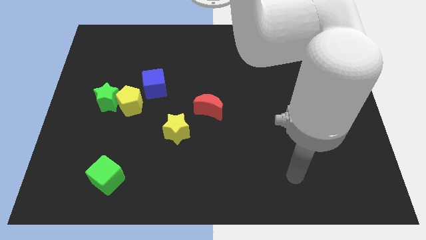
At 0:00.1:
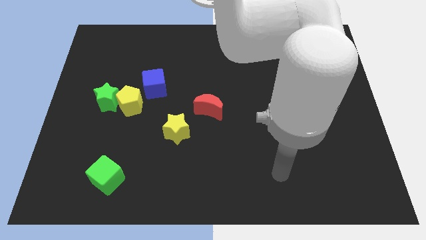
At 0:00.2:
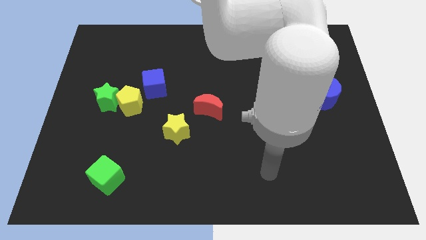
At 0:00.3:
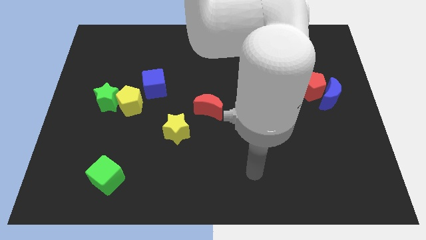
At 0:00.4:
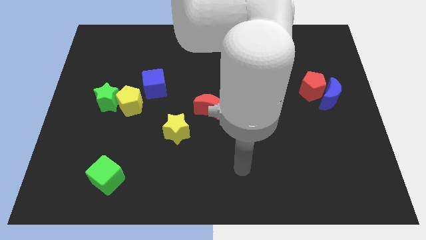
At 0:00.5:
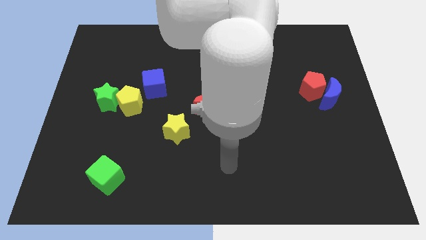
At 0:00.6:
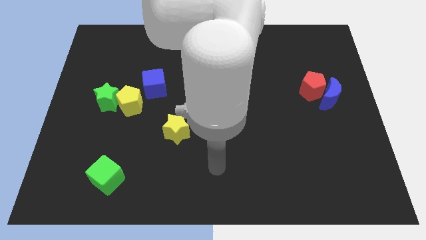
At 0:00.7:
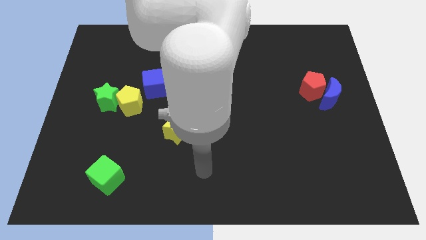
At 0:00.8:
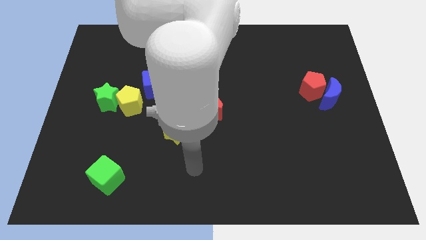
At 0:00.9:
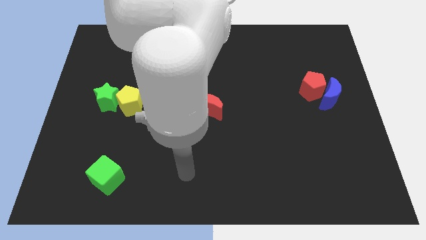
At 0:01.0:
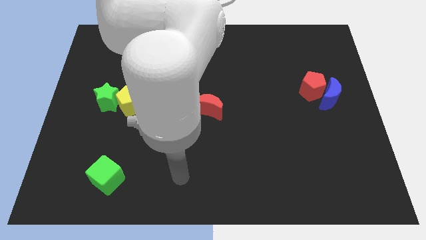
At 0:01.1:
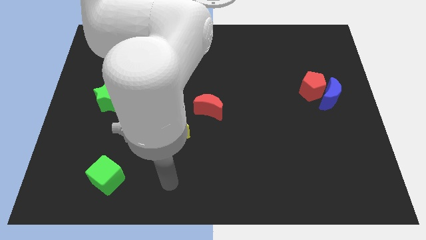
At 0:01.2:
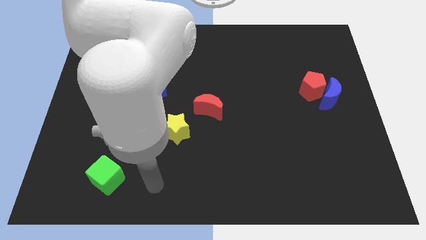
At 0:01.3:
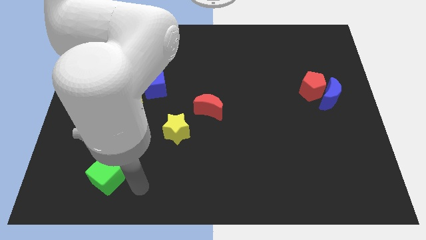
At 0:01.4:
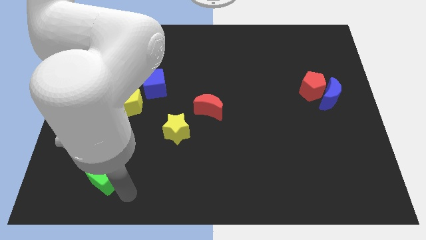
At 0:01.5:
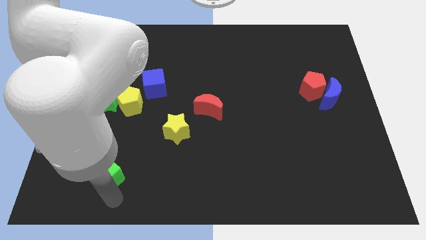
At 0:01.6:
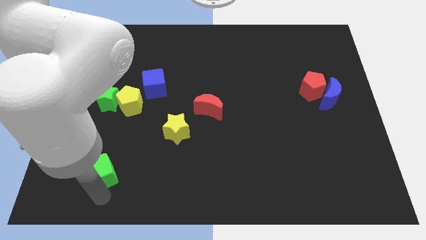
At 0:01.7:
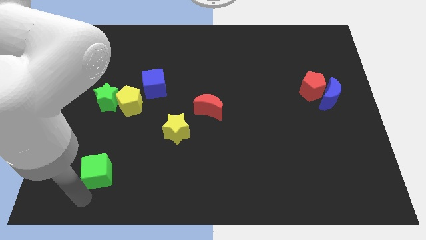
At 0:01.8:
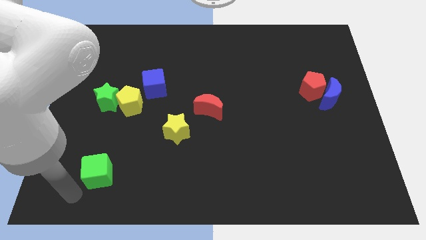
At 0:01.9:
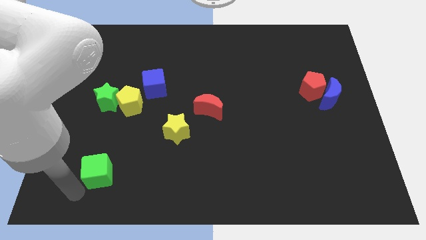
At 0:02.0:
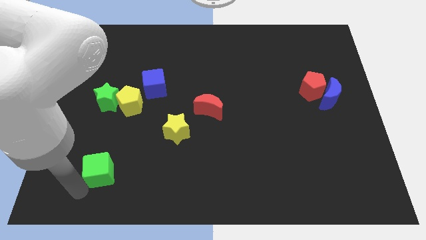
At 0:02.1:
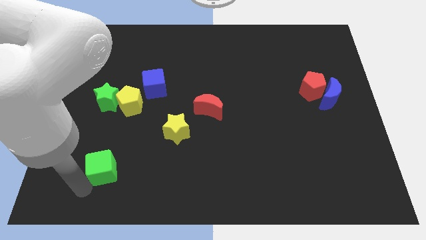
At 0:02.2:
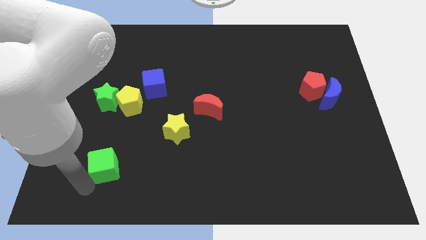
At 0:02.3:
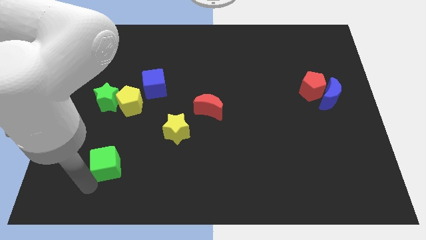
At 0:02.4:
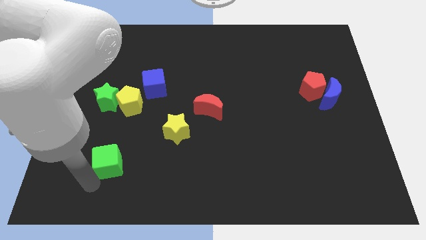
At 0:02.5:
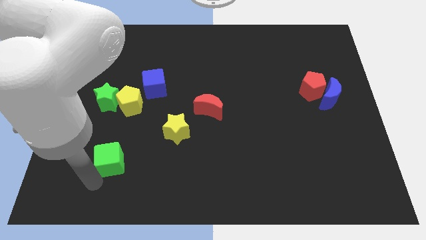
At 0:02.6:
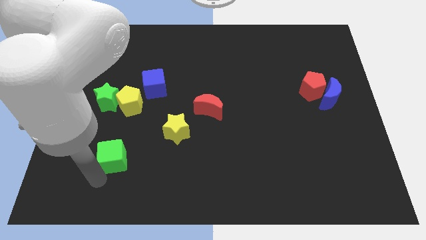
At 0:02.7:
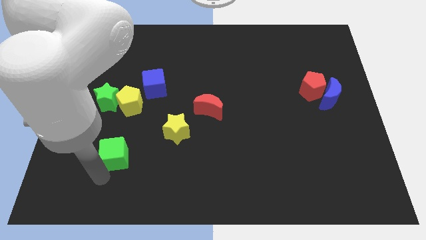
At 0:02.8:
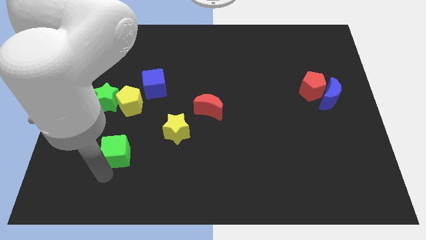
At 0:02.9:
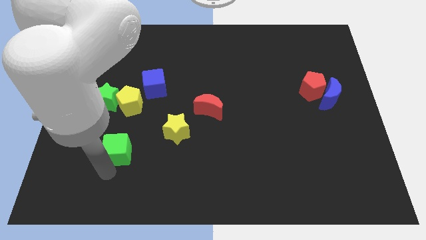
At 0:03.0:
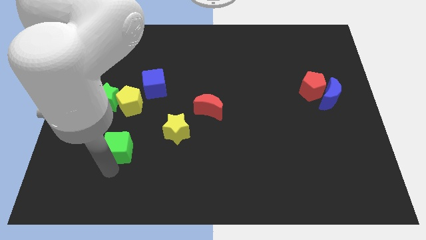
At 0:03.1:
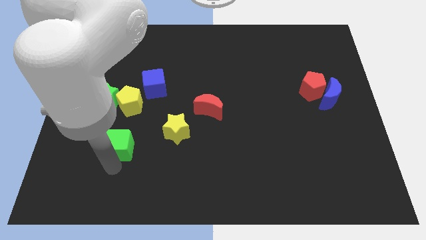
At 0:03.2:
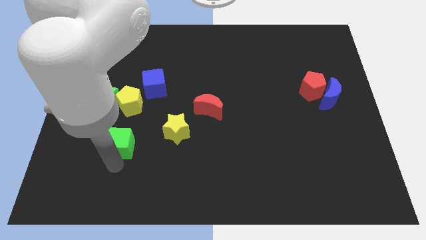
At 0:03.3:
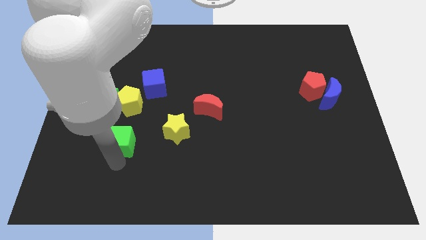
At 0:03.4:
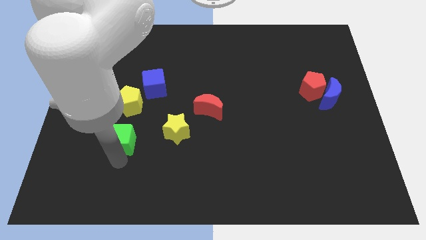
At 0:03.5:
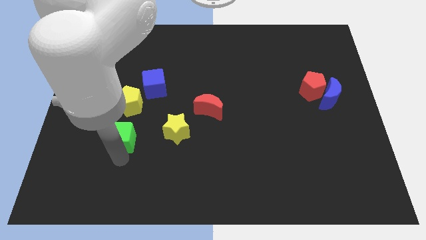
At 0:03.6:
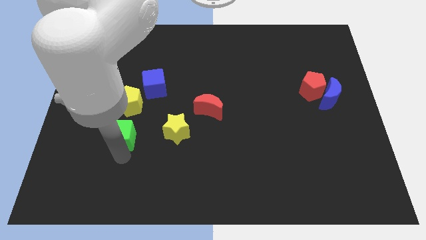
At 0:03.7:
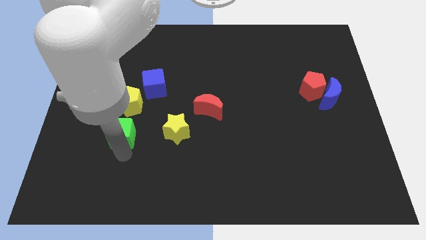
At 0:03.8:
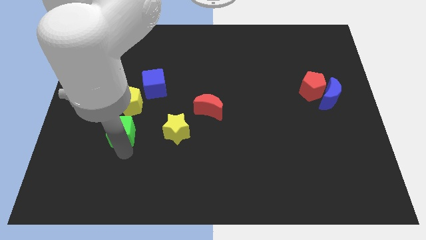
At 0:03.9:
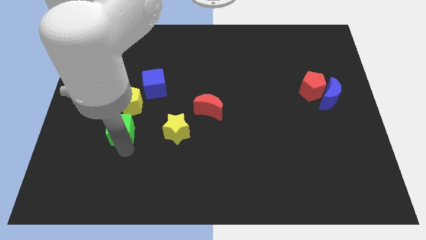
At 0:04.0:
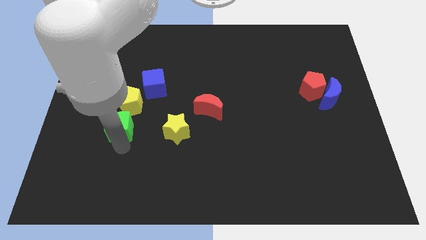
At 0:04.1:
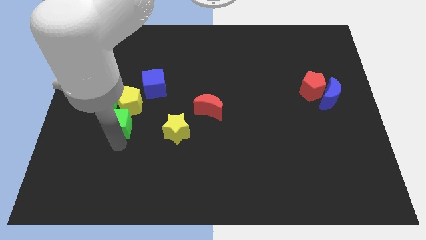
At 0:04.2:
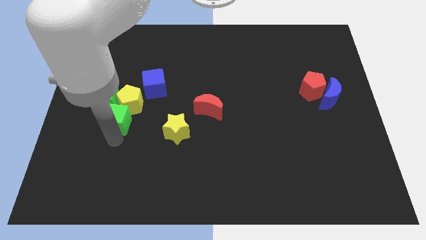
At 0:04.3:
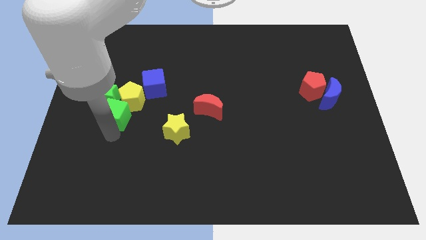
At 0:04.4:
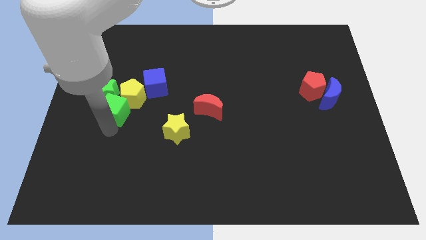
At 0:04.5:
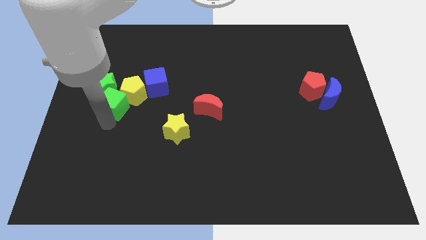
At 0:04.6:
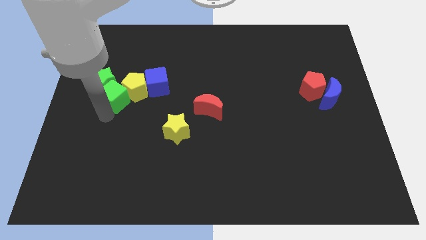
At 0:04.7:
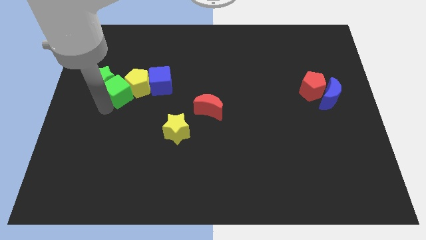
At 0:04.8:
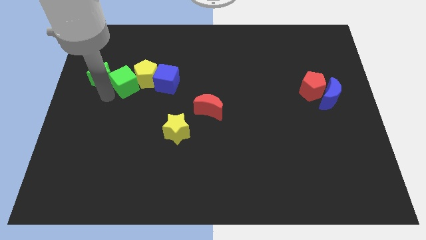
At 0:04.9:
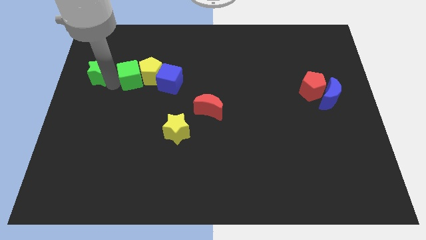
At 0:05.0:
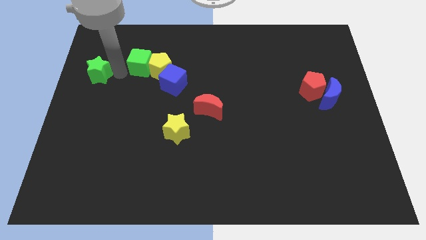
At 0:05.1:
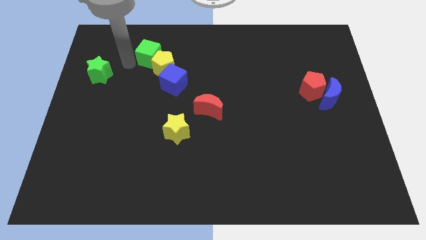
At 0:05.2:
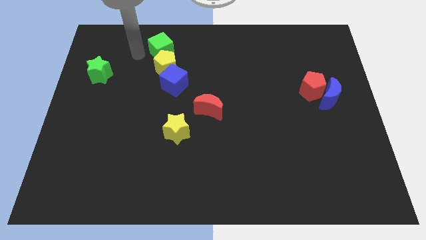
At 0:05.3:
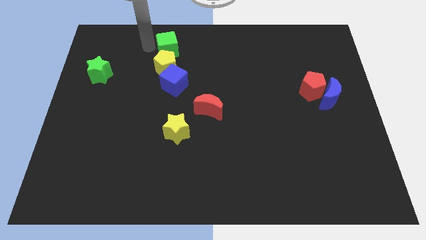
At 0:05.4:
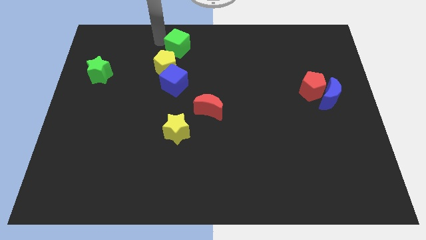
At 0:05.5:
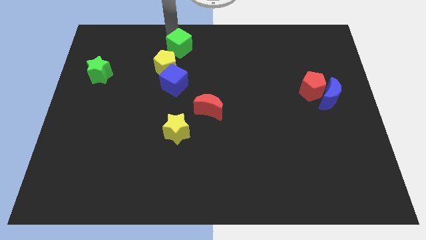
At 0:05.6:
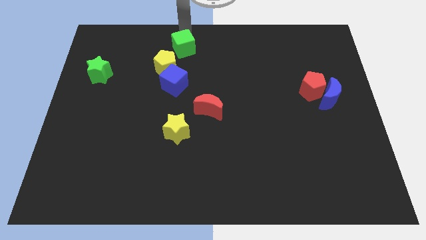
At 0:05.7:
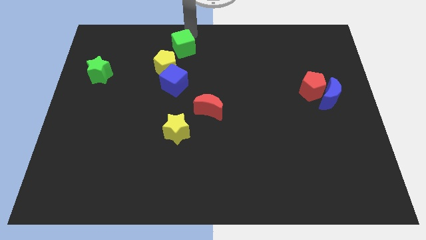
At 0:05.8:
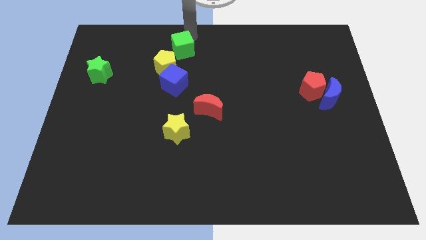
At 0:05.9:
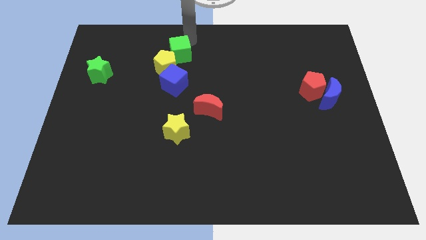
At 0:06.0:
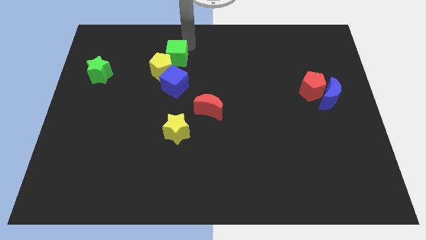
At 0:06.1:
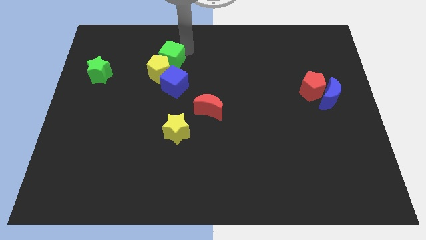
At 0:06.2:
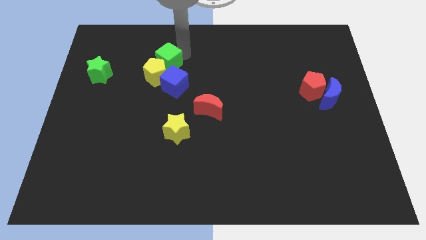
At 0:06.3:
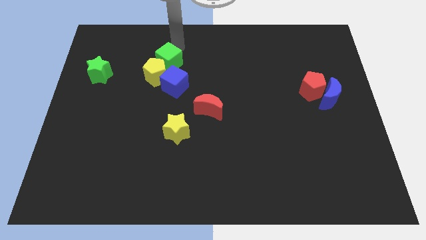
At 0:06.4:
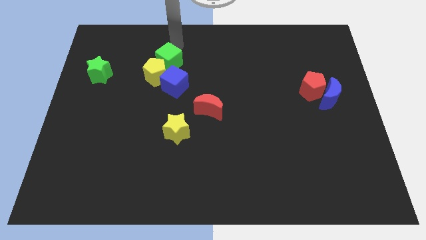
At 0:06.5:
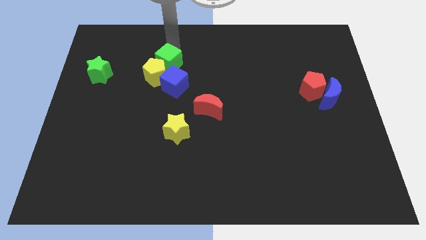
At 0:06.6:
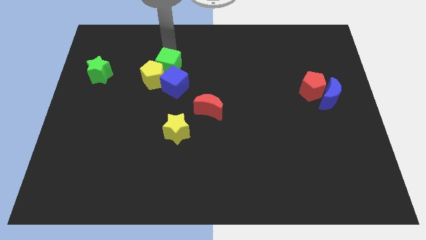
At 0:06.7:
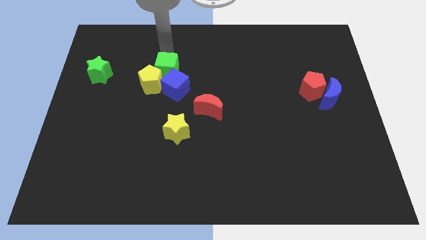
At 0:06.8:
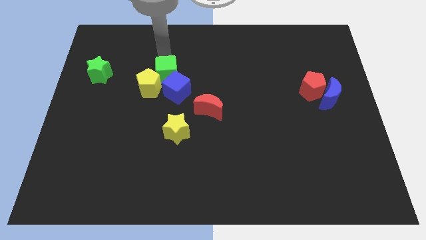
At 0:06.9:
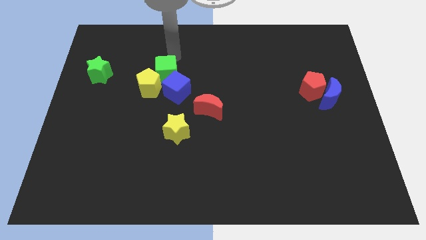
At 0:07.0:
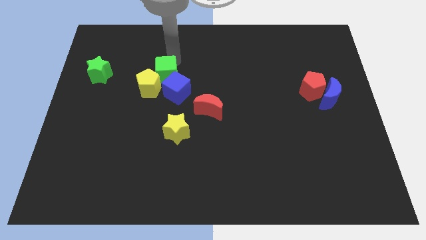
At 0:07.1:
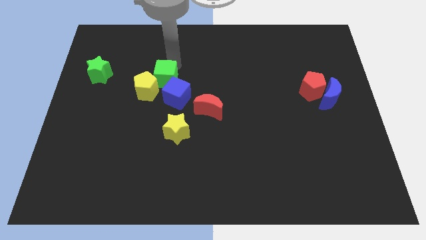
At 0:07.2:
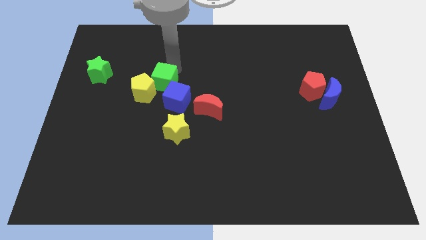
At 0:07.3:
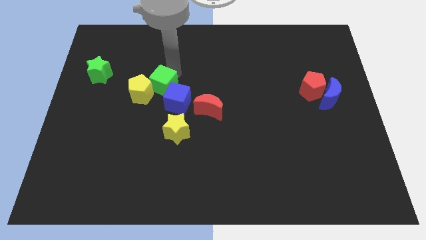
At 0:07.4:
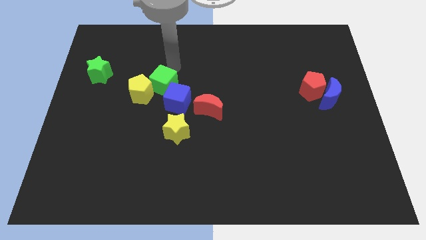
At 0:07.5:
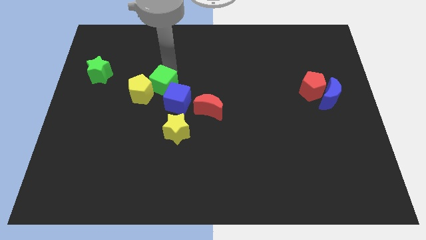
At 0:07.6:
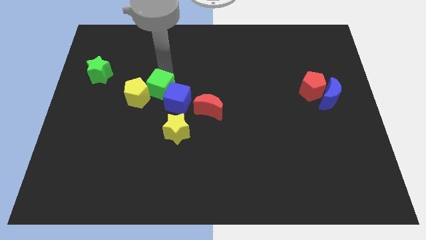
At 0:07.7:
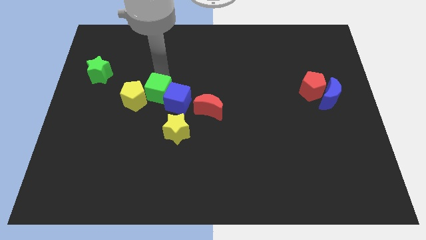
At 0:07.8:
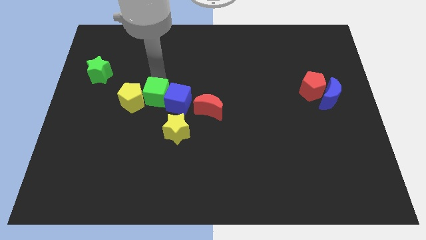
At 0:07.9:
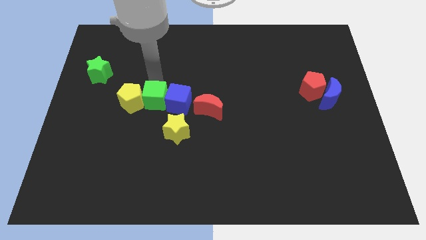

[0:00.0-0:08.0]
move the green cube to the bottom right of the yellow pentagon
